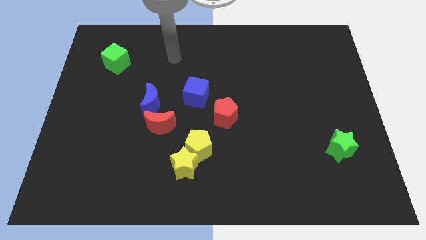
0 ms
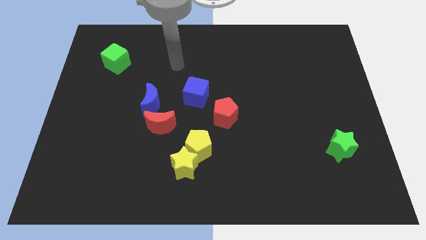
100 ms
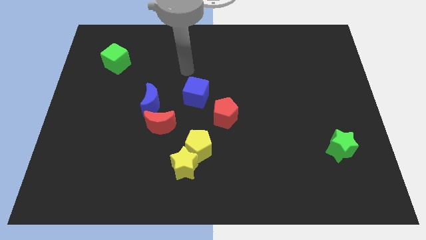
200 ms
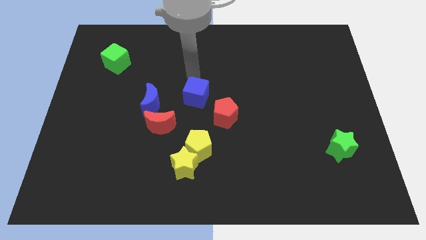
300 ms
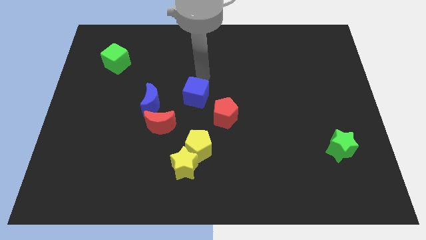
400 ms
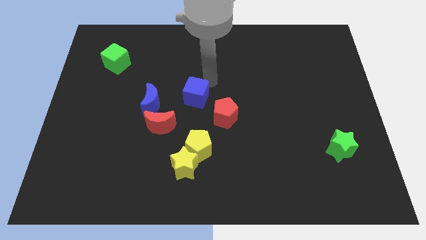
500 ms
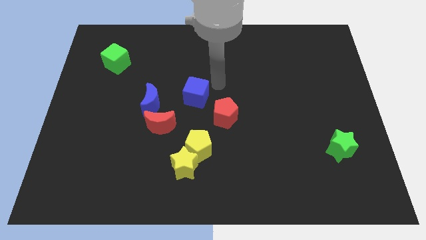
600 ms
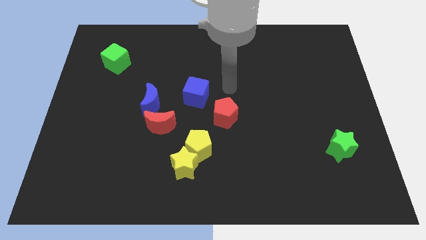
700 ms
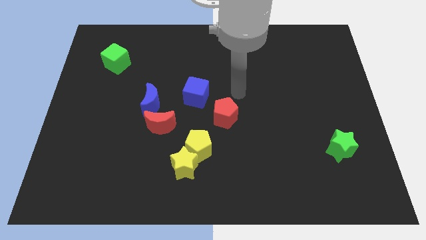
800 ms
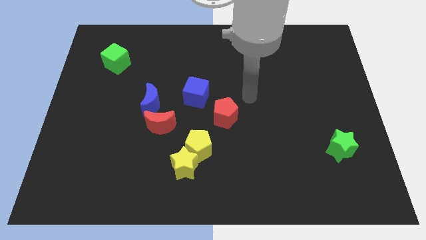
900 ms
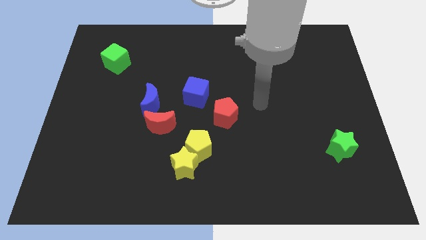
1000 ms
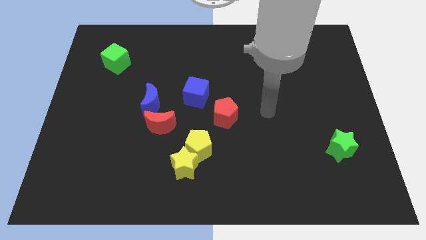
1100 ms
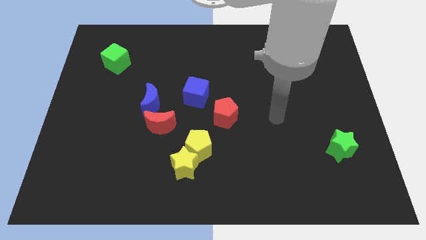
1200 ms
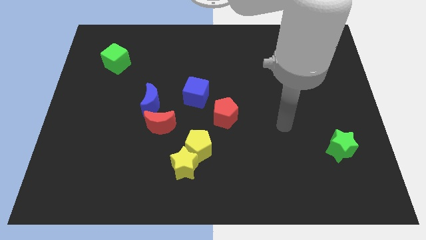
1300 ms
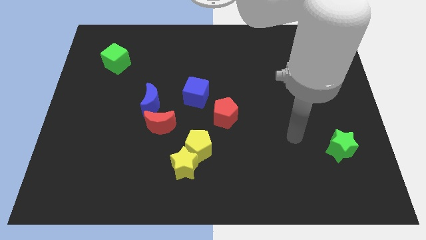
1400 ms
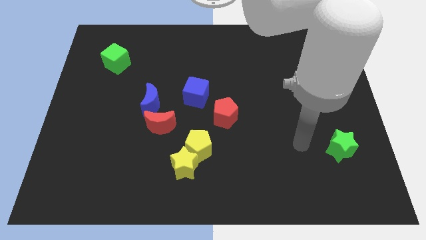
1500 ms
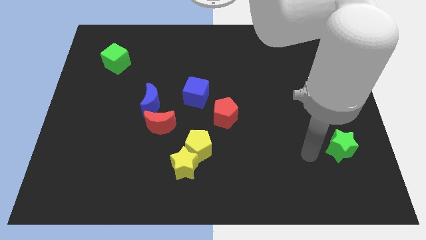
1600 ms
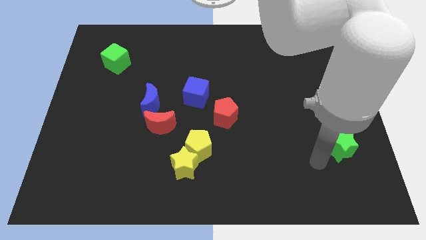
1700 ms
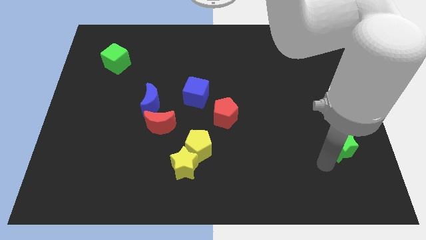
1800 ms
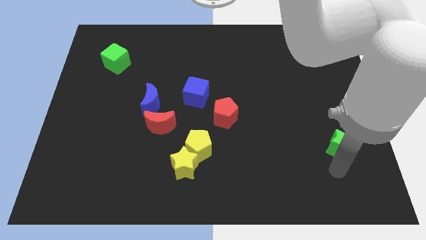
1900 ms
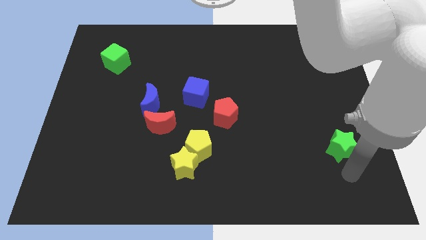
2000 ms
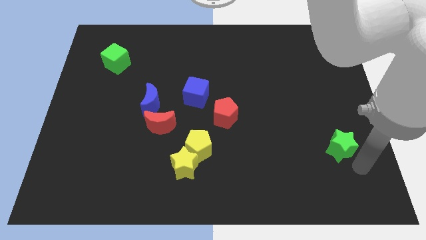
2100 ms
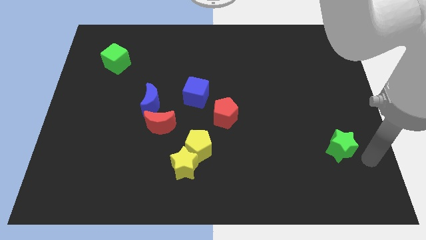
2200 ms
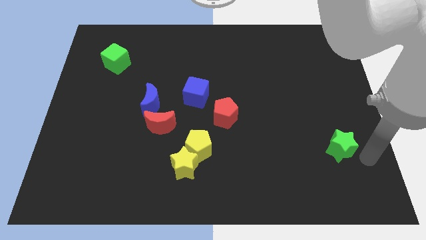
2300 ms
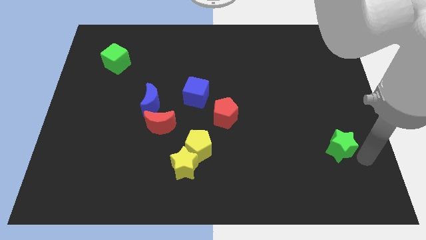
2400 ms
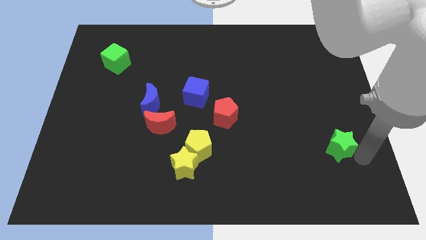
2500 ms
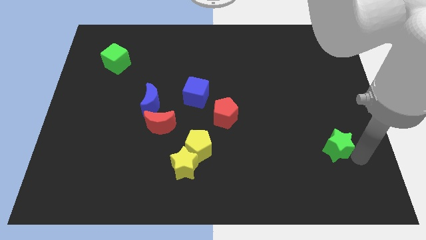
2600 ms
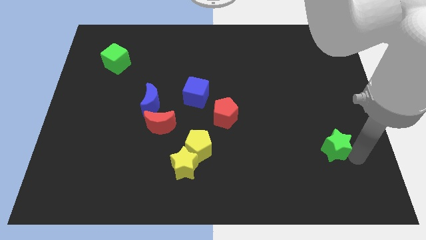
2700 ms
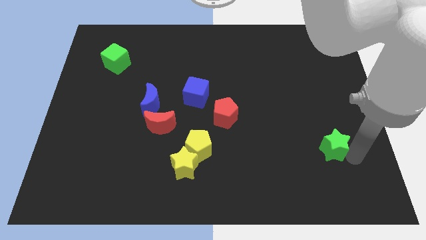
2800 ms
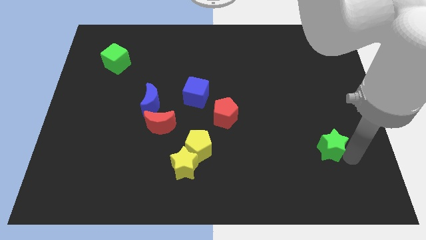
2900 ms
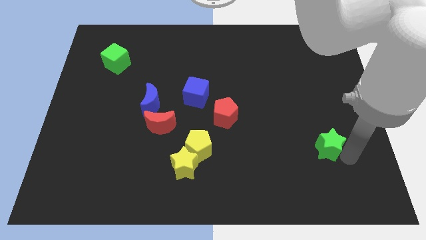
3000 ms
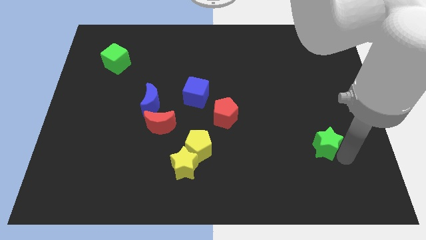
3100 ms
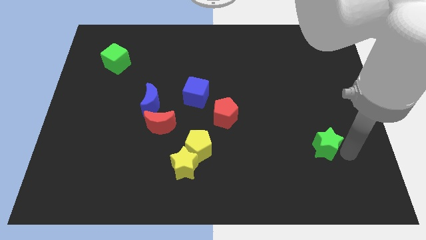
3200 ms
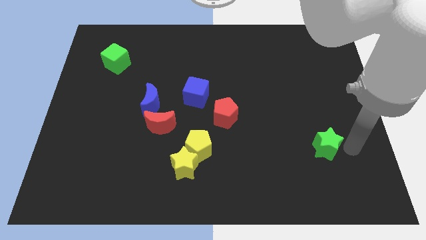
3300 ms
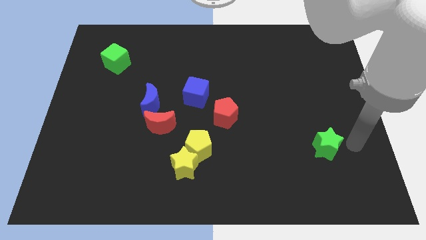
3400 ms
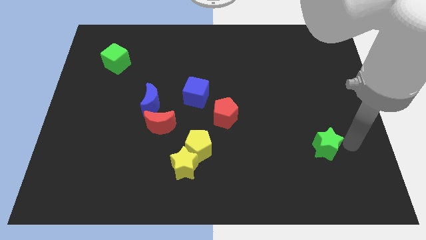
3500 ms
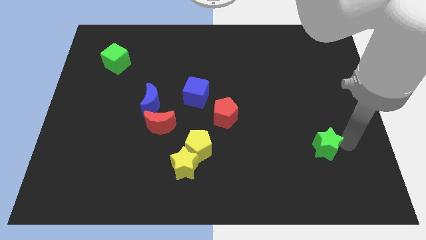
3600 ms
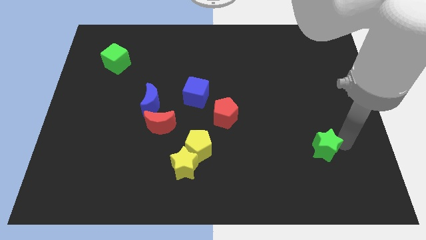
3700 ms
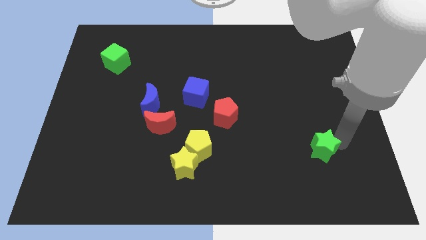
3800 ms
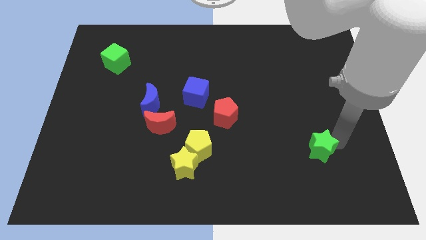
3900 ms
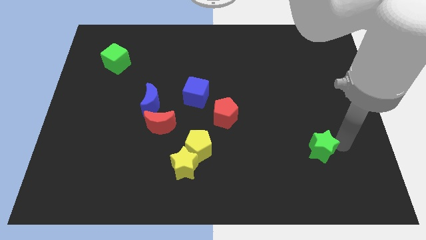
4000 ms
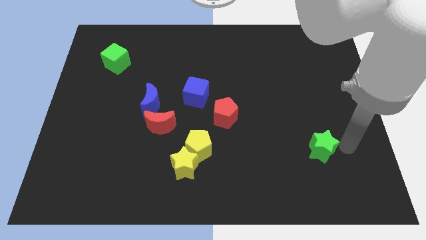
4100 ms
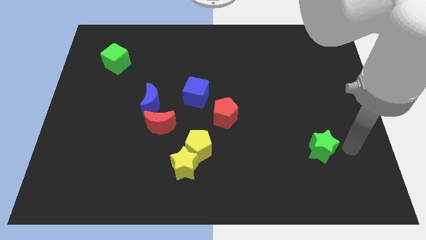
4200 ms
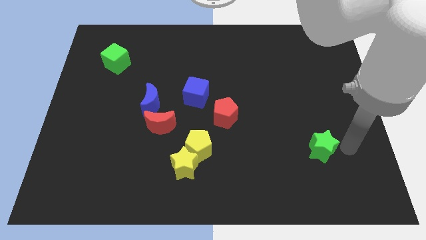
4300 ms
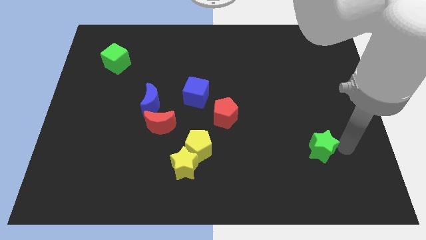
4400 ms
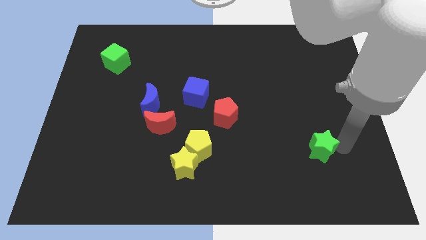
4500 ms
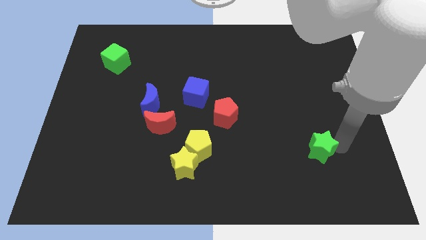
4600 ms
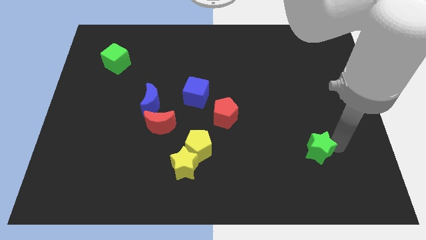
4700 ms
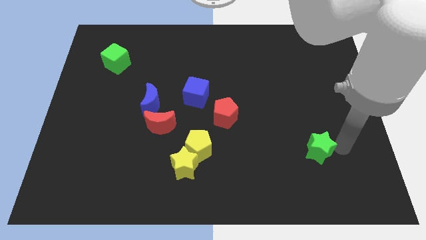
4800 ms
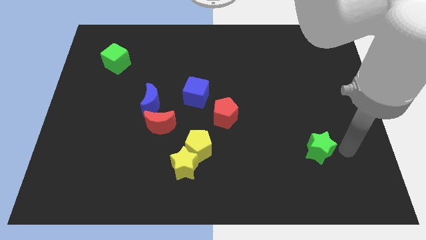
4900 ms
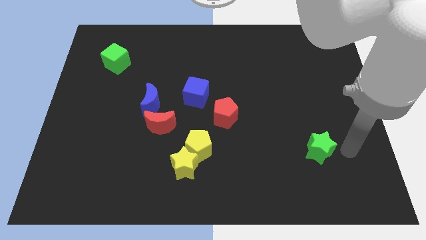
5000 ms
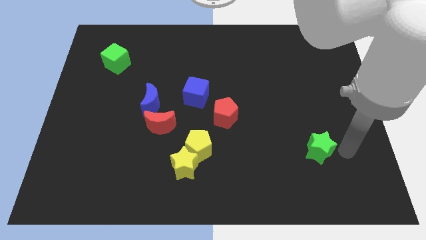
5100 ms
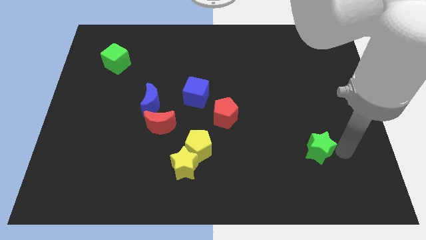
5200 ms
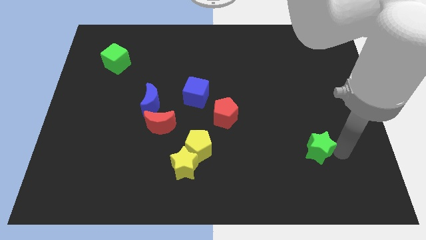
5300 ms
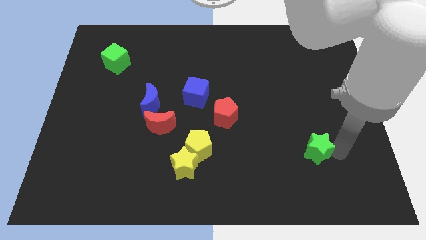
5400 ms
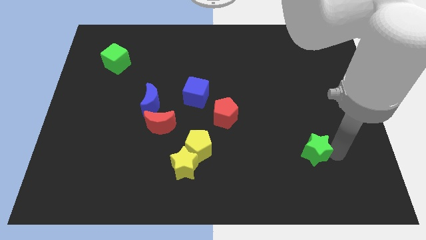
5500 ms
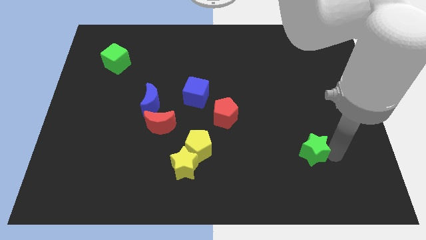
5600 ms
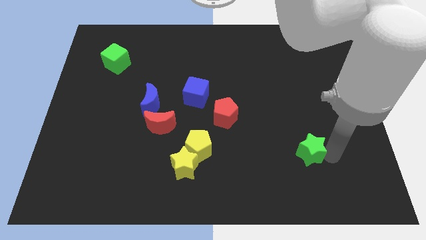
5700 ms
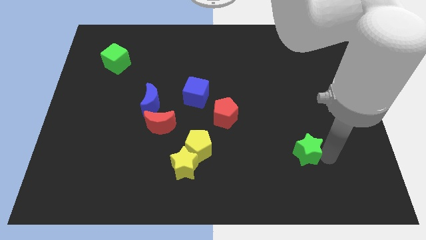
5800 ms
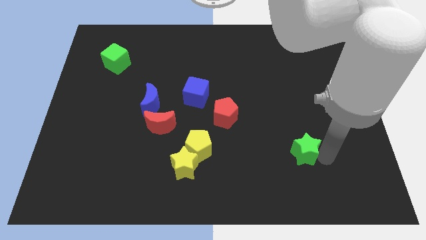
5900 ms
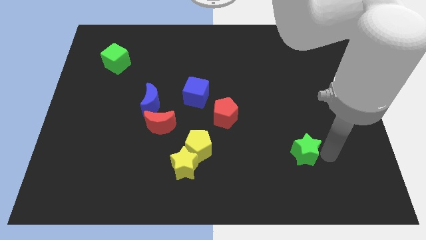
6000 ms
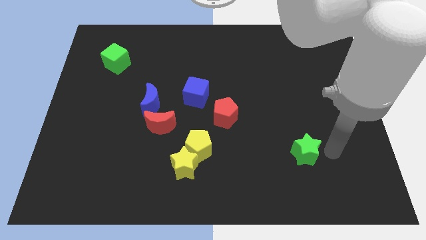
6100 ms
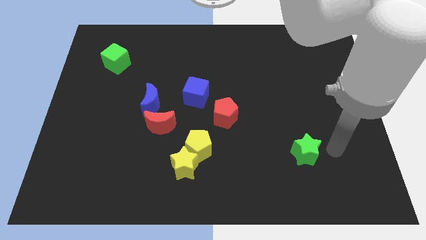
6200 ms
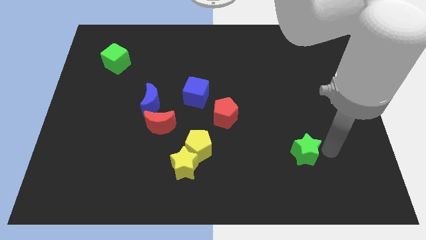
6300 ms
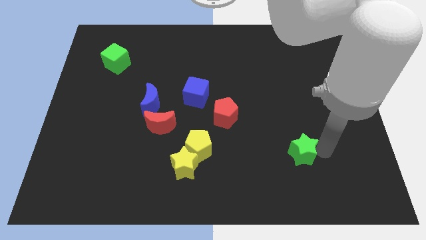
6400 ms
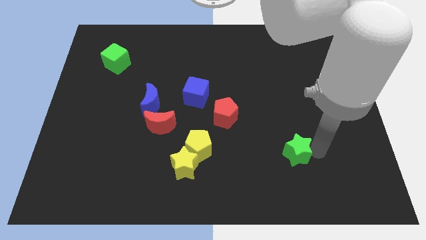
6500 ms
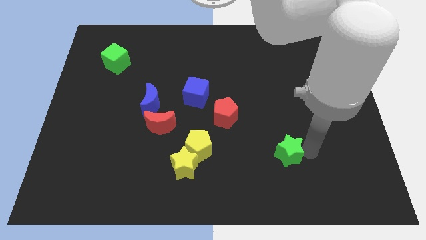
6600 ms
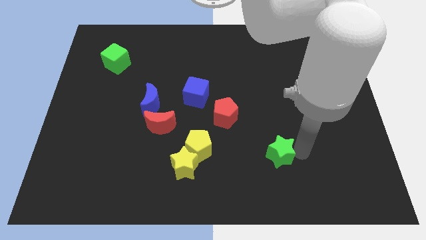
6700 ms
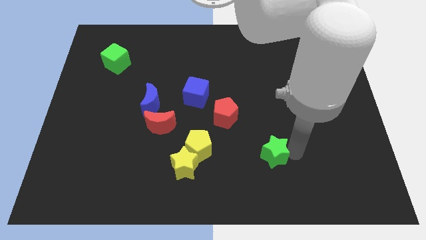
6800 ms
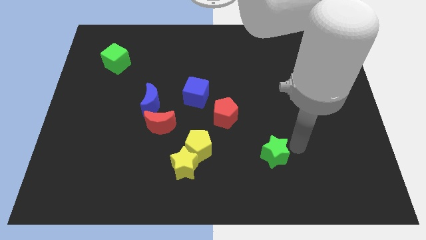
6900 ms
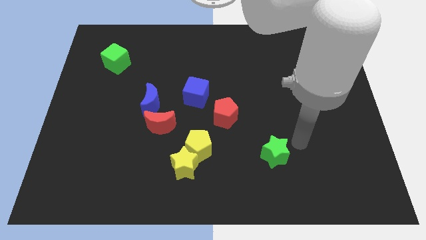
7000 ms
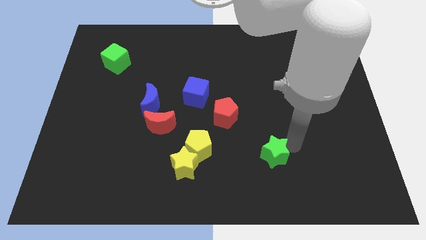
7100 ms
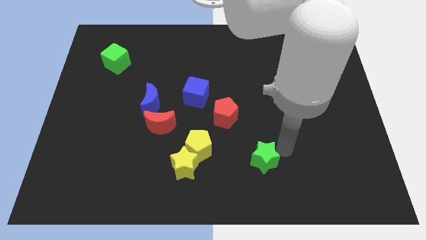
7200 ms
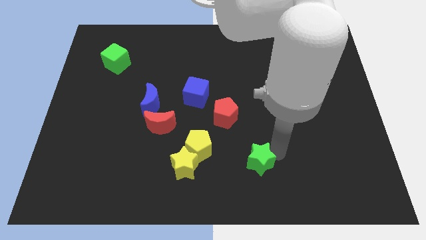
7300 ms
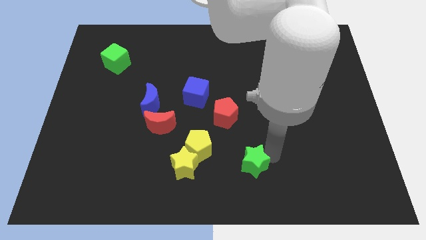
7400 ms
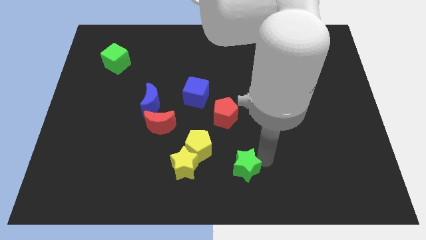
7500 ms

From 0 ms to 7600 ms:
move the green star to the bottom right of the yellow pentagon
